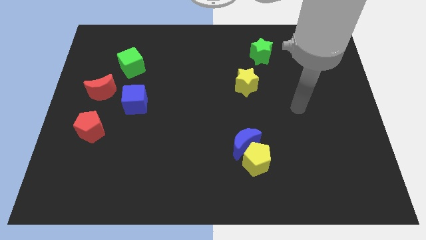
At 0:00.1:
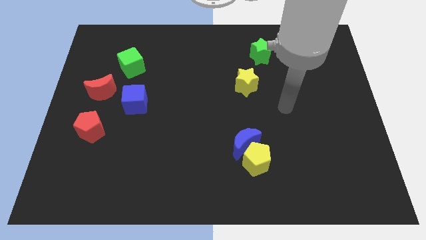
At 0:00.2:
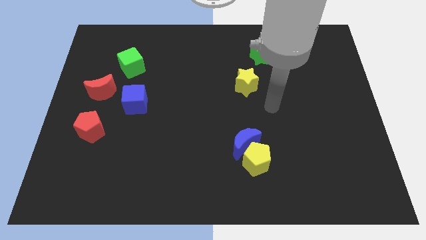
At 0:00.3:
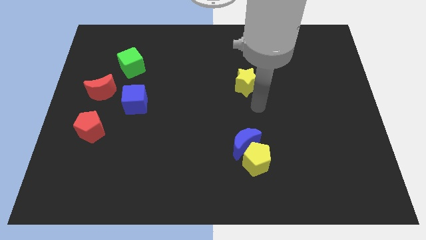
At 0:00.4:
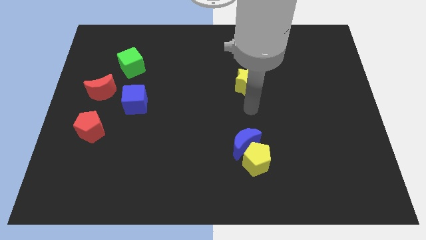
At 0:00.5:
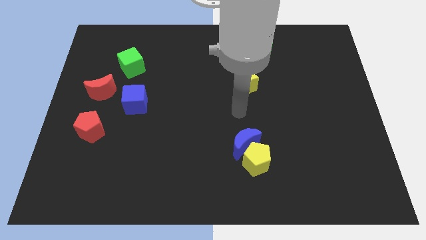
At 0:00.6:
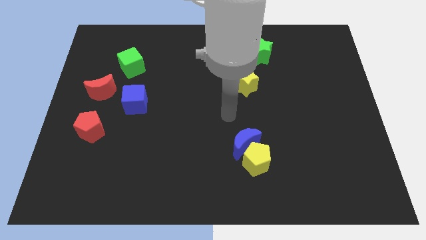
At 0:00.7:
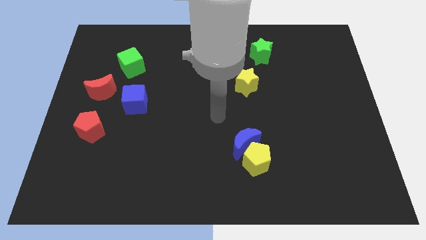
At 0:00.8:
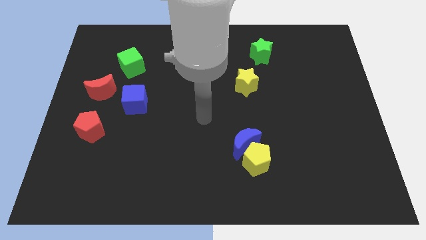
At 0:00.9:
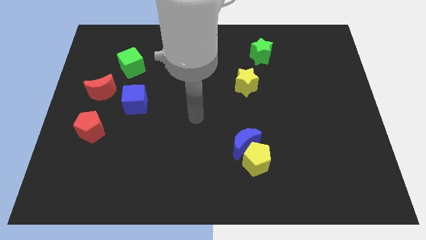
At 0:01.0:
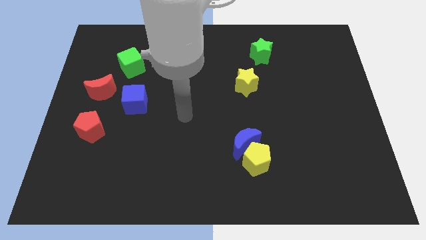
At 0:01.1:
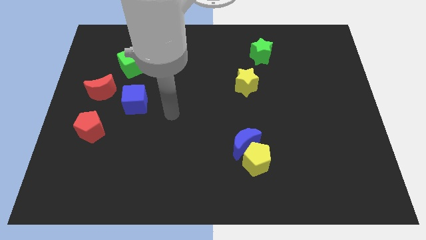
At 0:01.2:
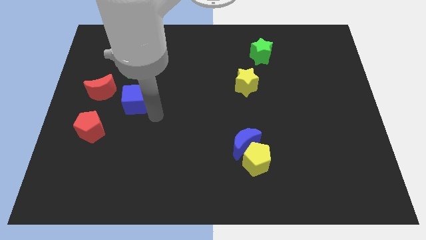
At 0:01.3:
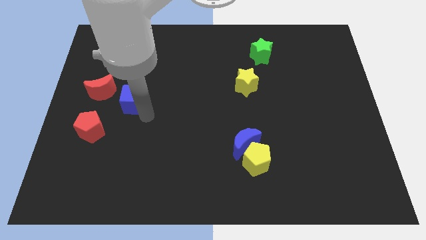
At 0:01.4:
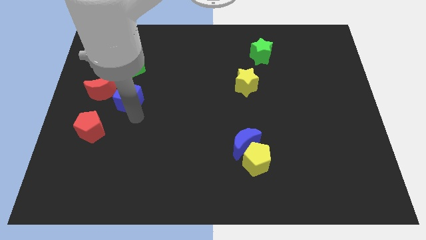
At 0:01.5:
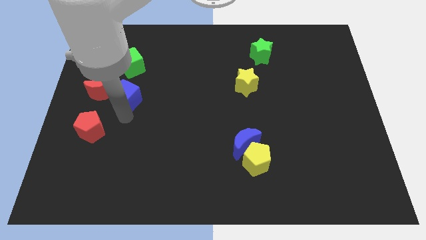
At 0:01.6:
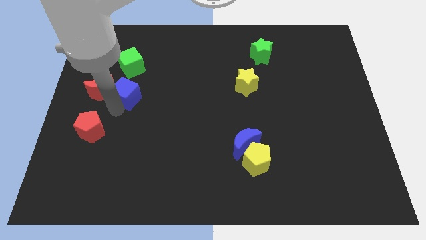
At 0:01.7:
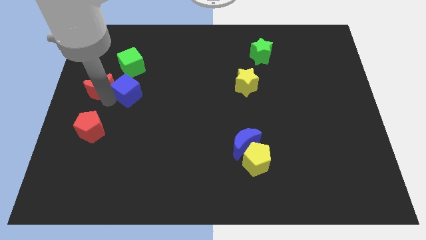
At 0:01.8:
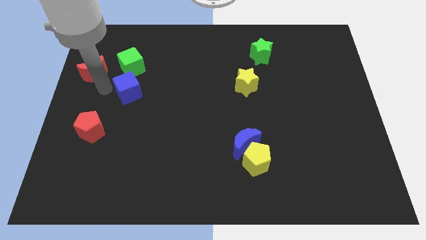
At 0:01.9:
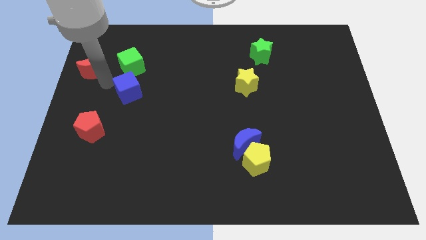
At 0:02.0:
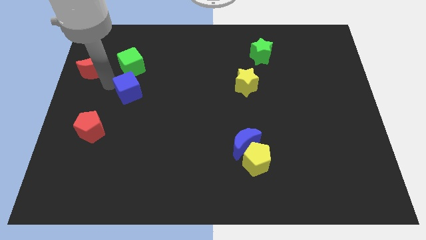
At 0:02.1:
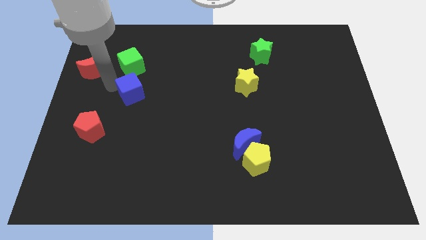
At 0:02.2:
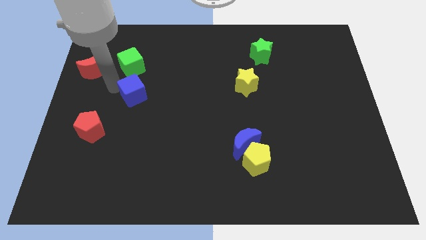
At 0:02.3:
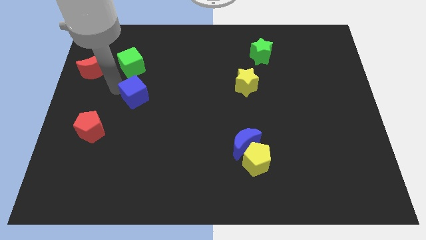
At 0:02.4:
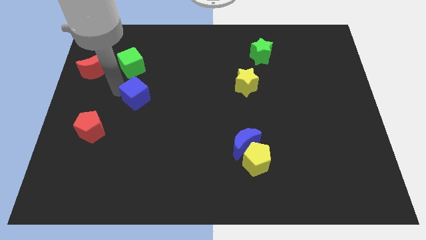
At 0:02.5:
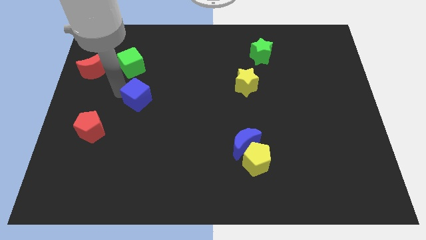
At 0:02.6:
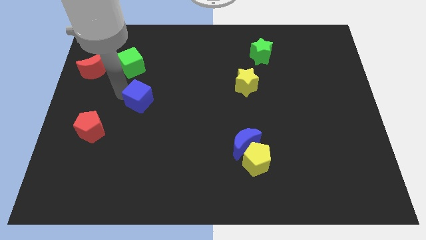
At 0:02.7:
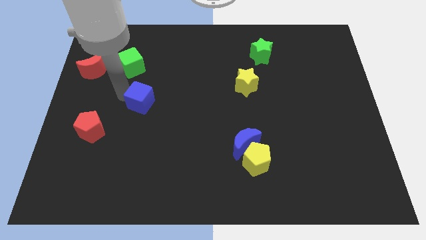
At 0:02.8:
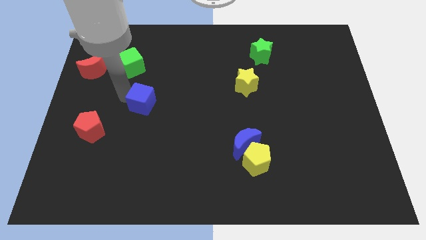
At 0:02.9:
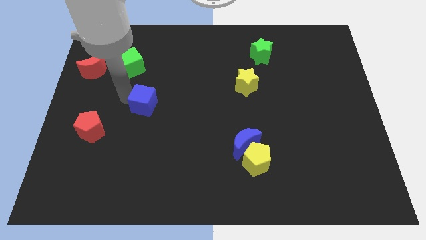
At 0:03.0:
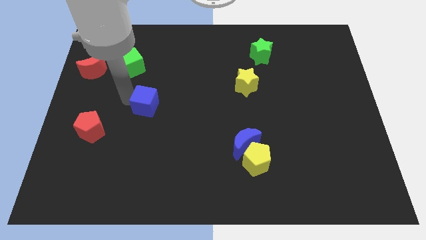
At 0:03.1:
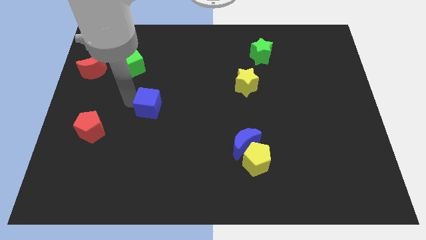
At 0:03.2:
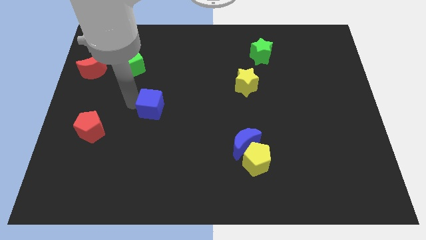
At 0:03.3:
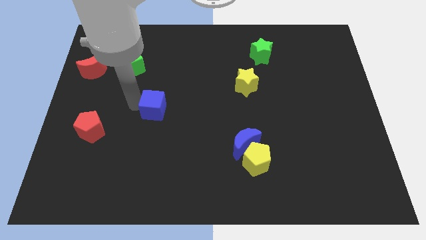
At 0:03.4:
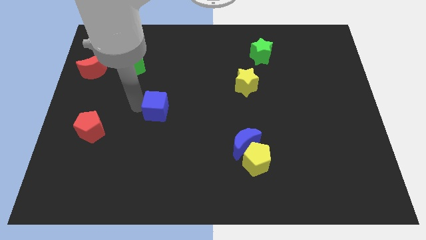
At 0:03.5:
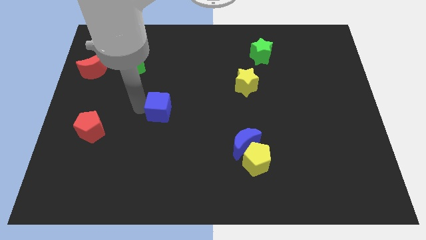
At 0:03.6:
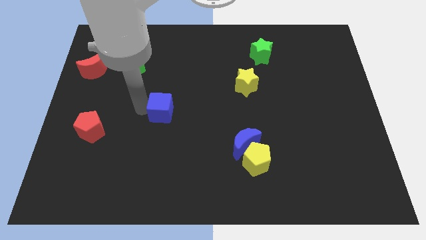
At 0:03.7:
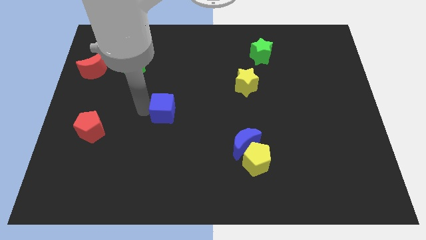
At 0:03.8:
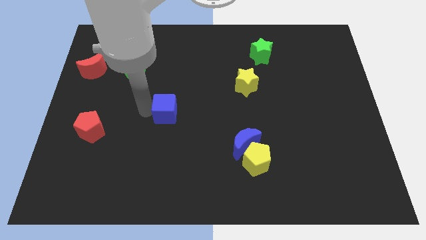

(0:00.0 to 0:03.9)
push the blue cube a little to the right

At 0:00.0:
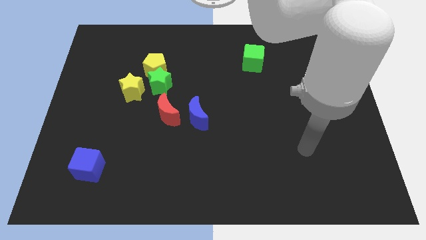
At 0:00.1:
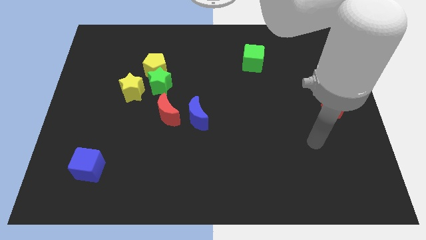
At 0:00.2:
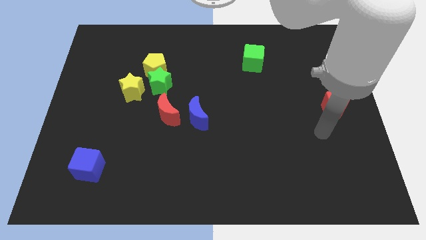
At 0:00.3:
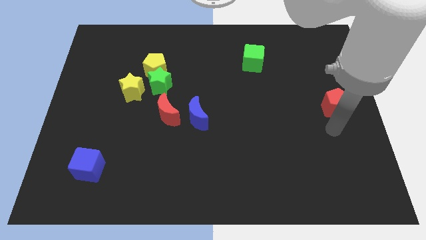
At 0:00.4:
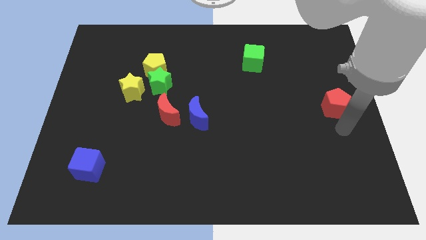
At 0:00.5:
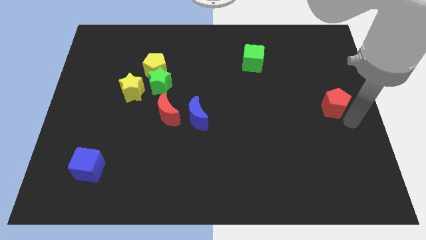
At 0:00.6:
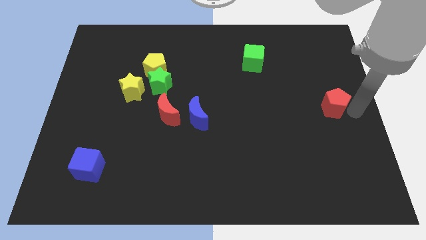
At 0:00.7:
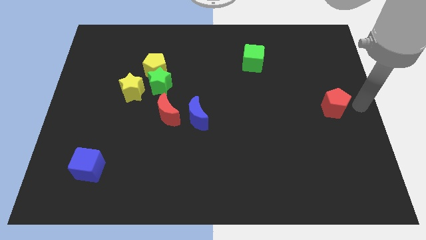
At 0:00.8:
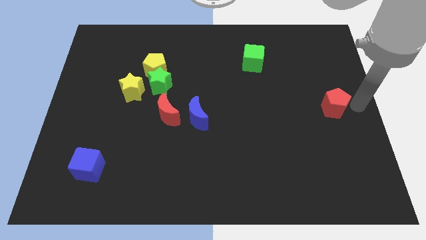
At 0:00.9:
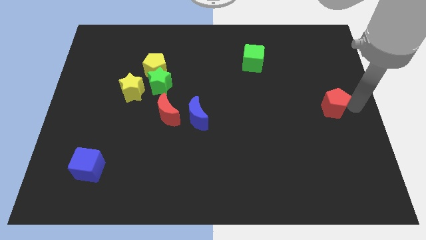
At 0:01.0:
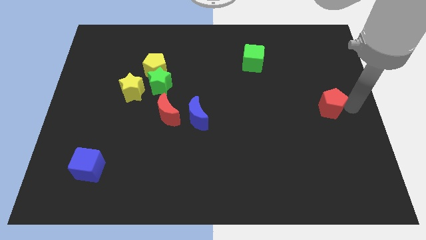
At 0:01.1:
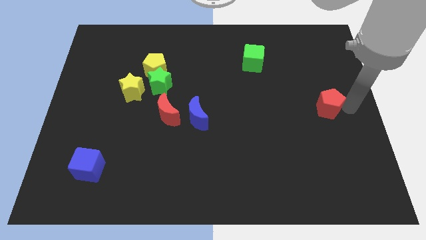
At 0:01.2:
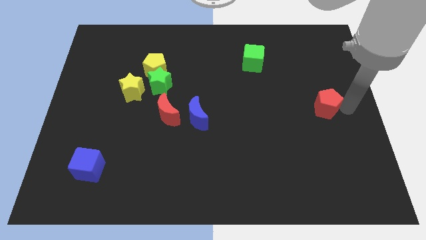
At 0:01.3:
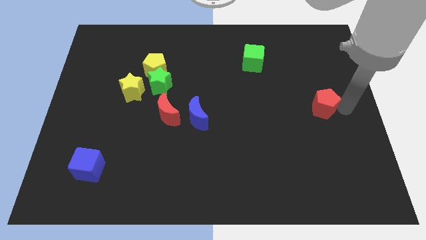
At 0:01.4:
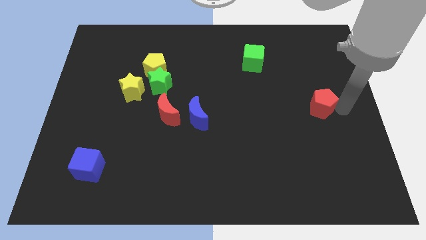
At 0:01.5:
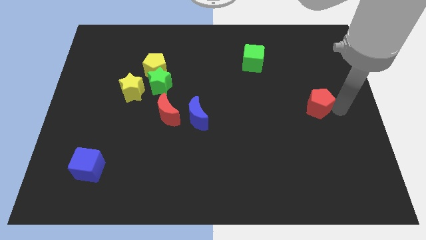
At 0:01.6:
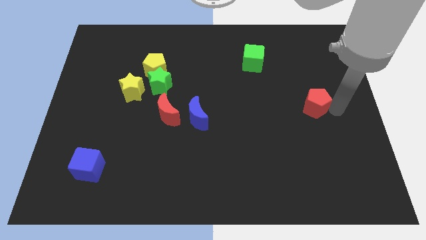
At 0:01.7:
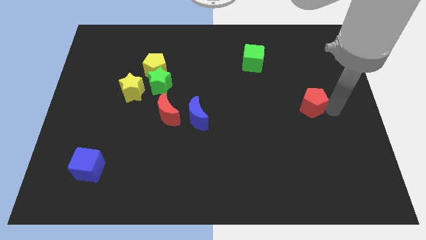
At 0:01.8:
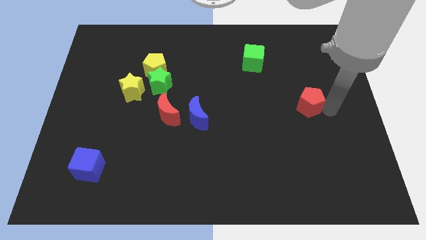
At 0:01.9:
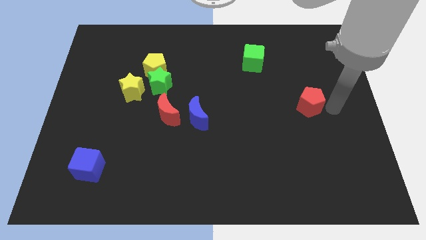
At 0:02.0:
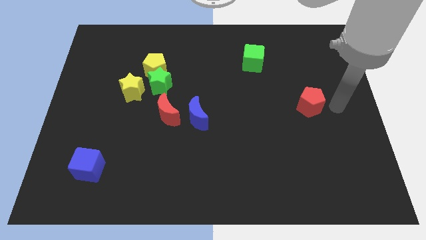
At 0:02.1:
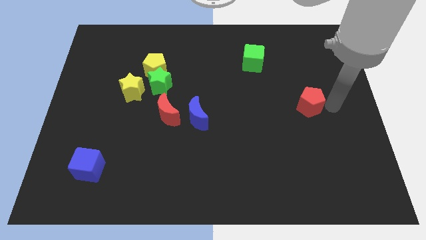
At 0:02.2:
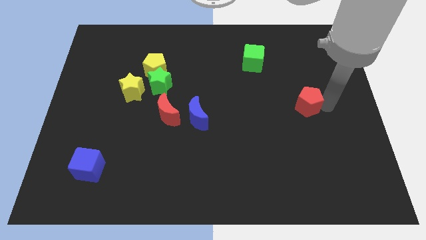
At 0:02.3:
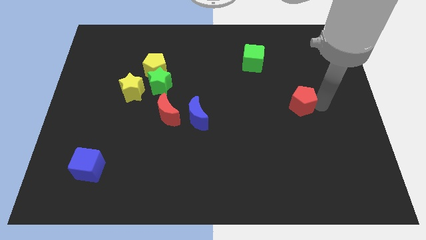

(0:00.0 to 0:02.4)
move the red pentagon a bit left

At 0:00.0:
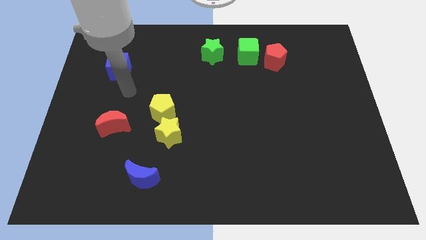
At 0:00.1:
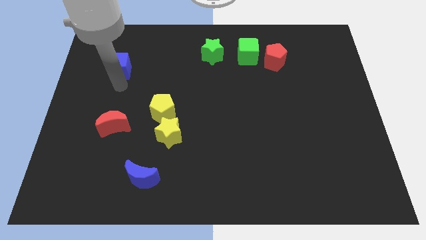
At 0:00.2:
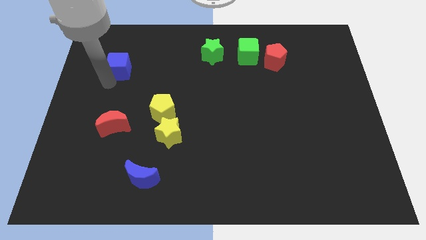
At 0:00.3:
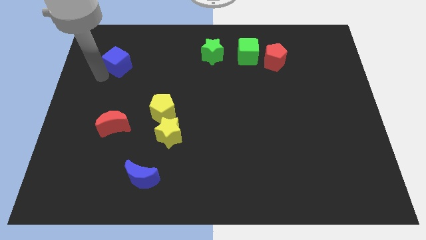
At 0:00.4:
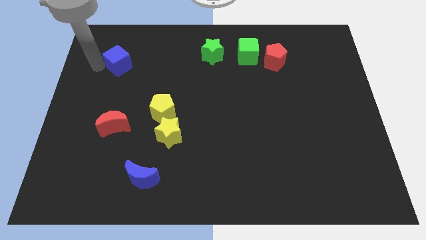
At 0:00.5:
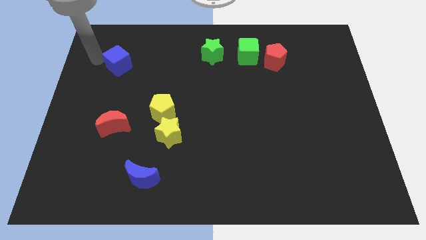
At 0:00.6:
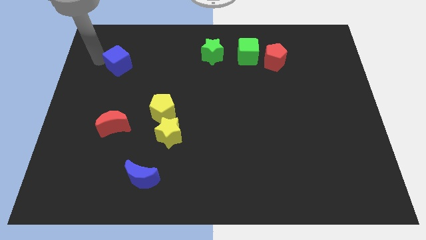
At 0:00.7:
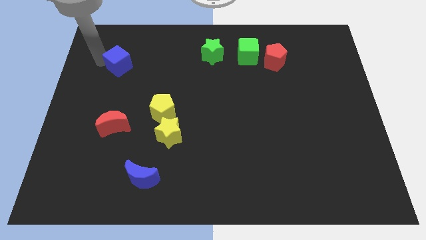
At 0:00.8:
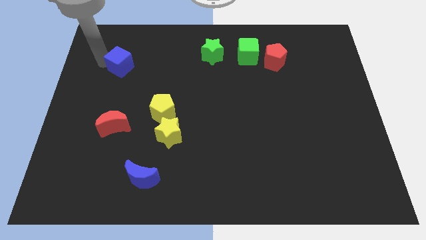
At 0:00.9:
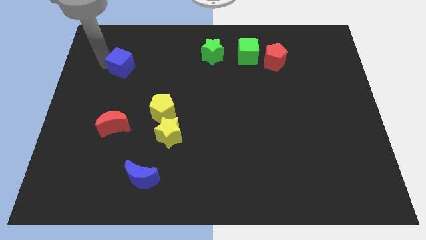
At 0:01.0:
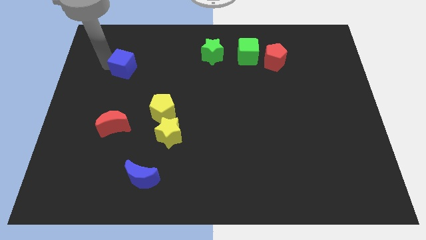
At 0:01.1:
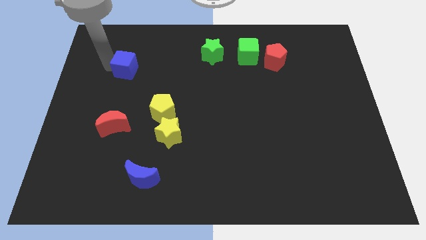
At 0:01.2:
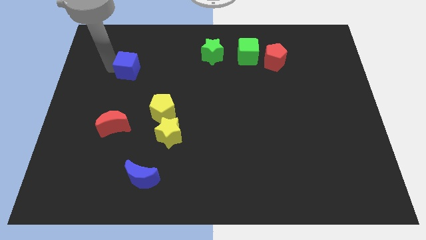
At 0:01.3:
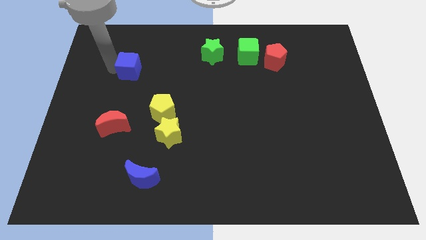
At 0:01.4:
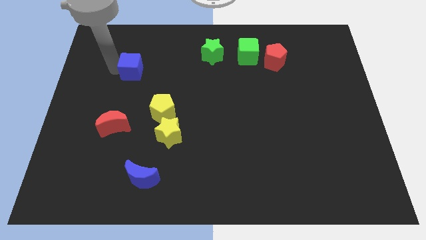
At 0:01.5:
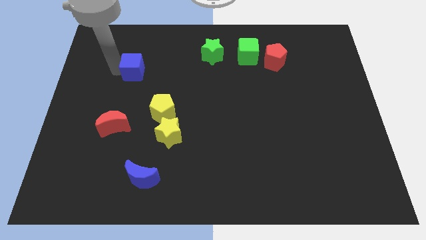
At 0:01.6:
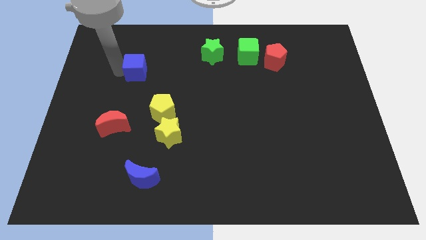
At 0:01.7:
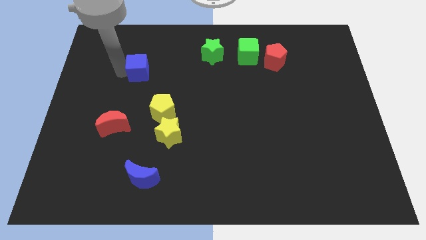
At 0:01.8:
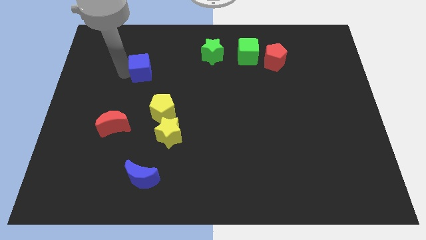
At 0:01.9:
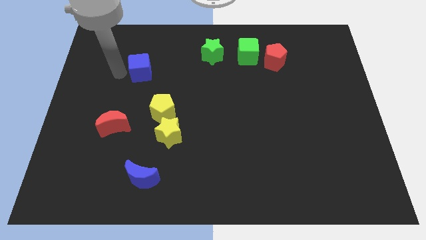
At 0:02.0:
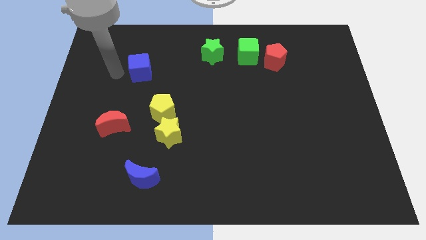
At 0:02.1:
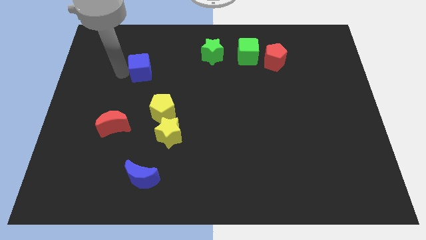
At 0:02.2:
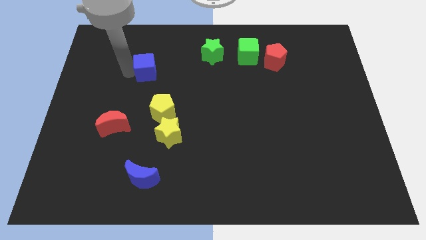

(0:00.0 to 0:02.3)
slightly push the blue cube to the right
